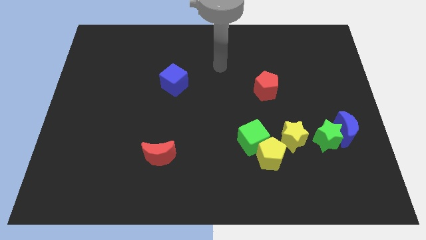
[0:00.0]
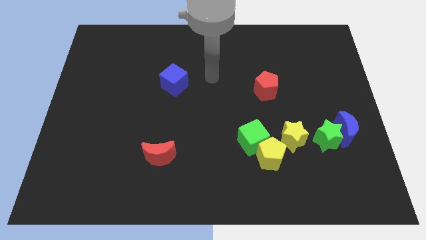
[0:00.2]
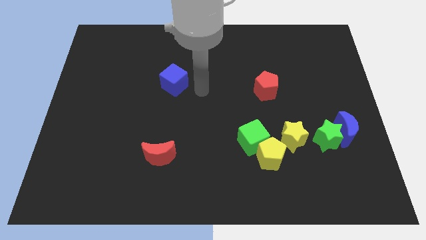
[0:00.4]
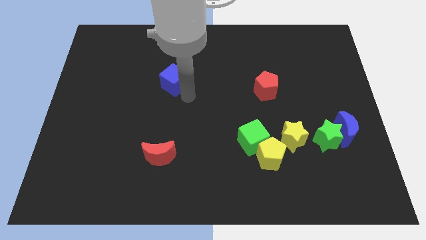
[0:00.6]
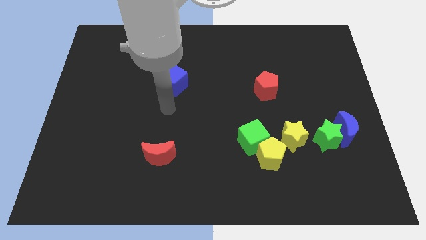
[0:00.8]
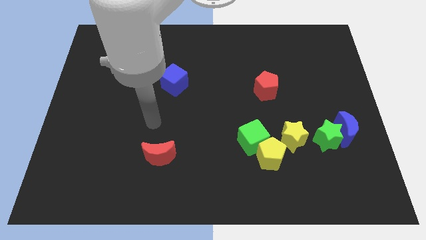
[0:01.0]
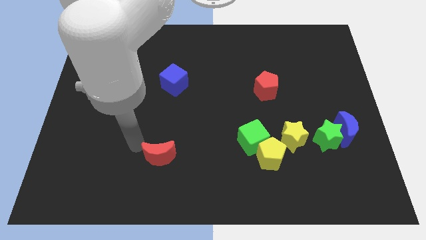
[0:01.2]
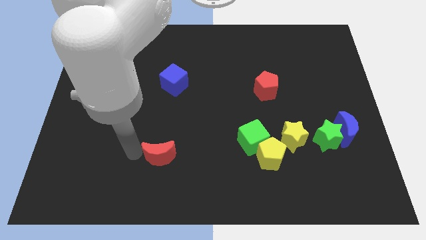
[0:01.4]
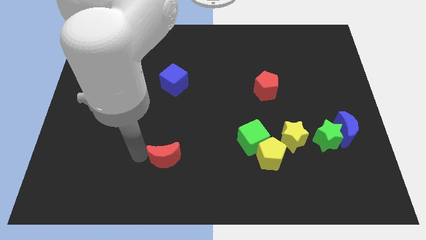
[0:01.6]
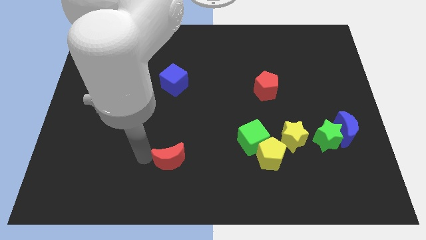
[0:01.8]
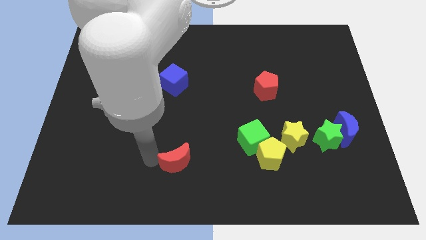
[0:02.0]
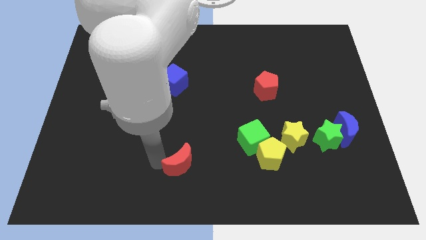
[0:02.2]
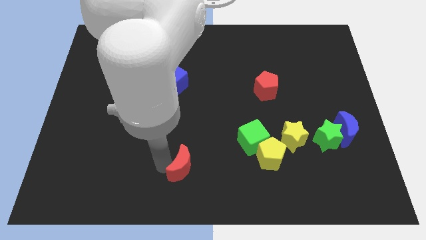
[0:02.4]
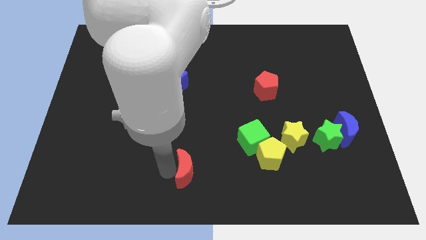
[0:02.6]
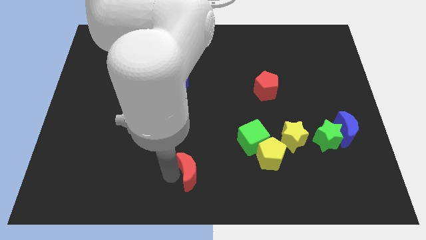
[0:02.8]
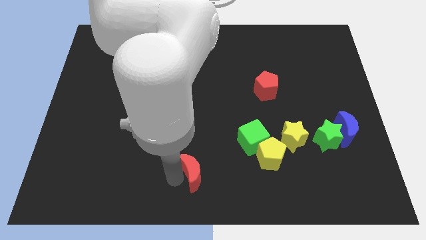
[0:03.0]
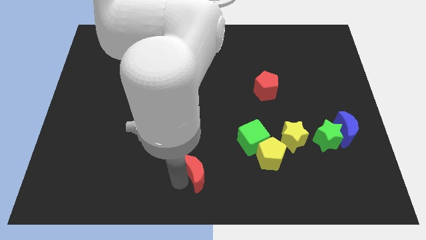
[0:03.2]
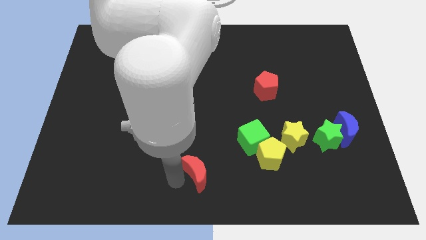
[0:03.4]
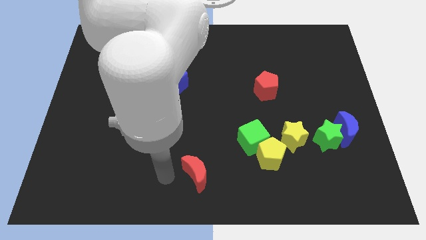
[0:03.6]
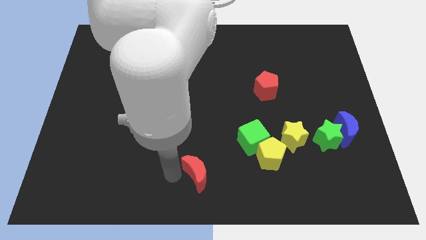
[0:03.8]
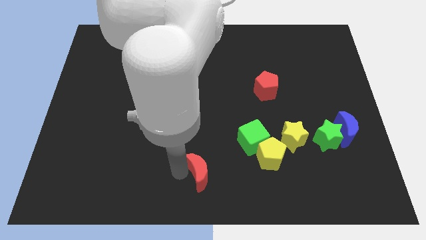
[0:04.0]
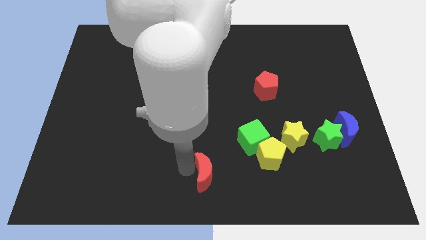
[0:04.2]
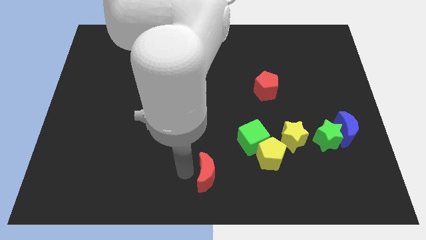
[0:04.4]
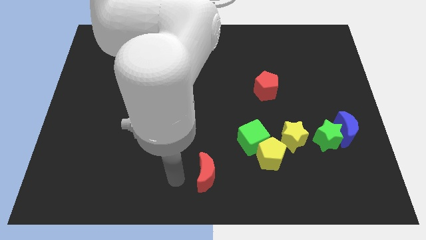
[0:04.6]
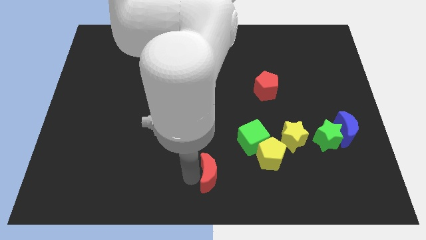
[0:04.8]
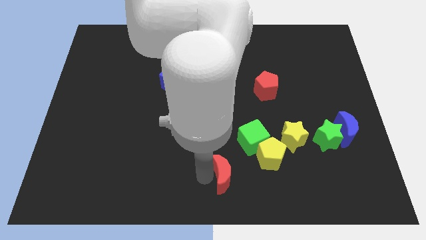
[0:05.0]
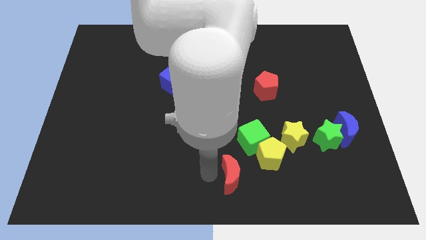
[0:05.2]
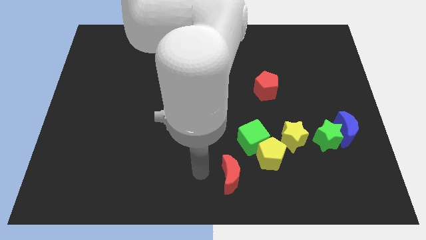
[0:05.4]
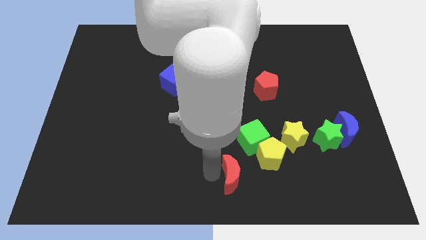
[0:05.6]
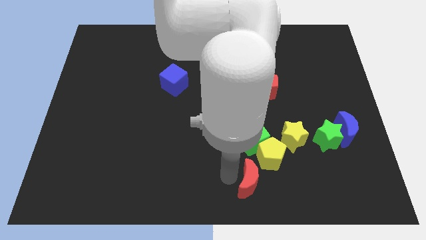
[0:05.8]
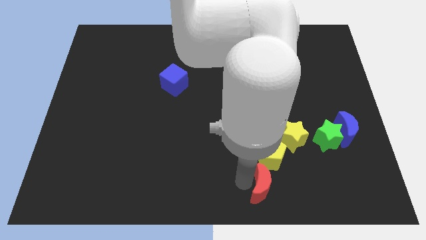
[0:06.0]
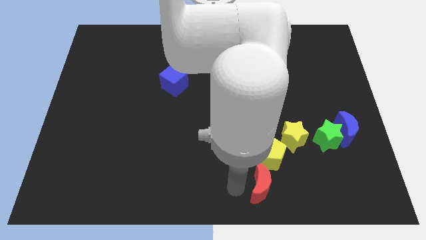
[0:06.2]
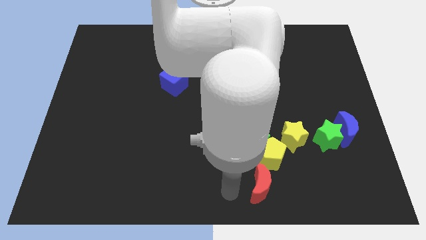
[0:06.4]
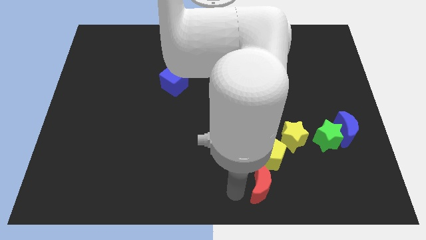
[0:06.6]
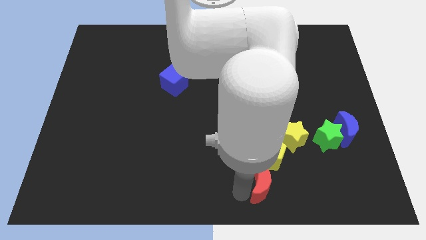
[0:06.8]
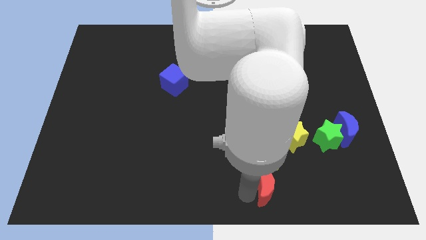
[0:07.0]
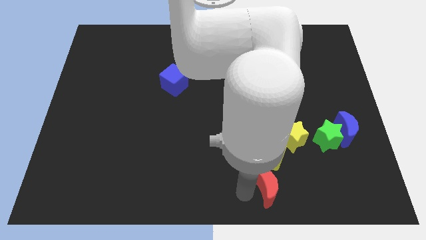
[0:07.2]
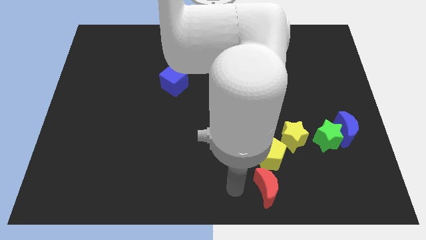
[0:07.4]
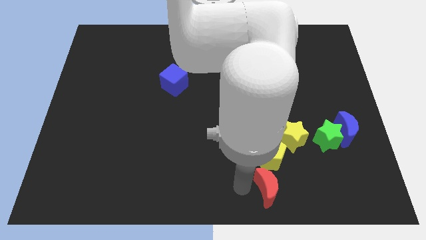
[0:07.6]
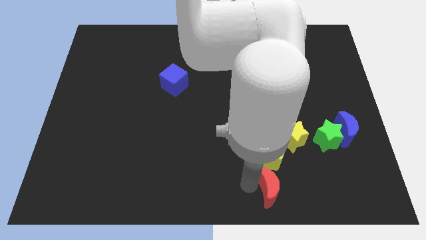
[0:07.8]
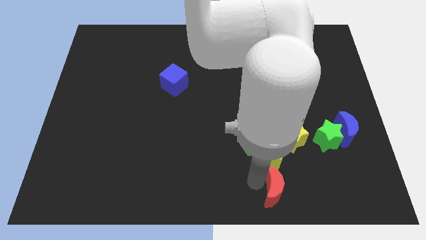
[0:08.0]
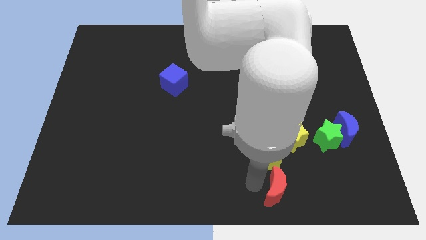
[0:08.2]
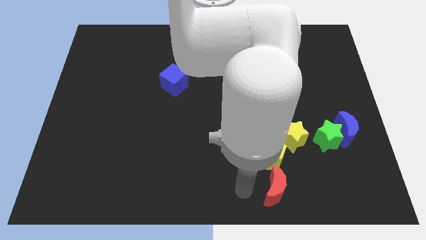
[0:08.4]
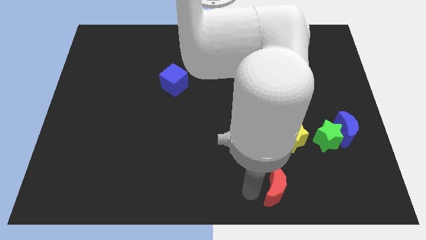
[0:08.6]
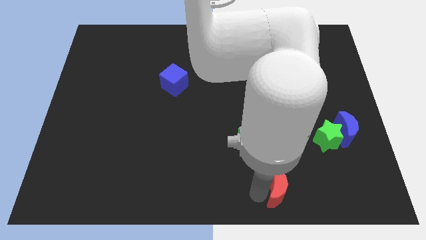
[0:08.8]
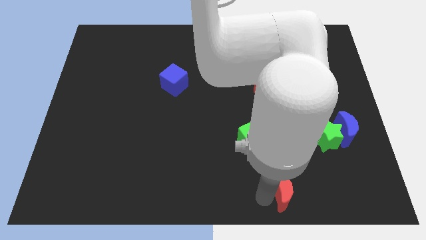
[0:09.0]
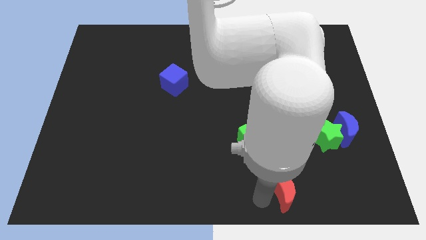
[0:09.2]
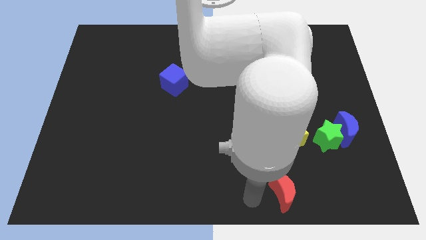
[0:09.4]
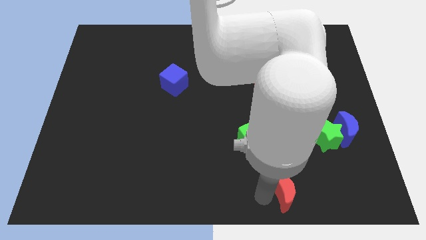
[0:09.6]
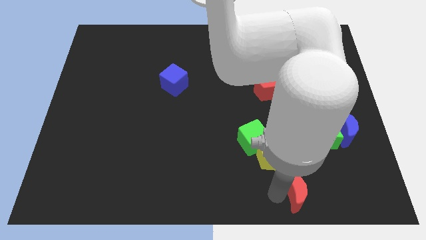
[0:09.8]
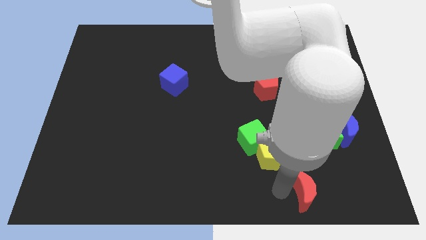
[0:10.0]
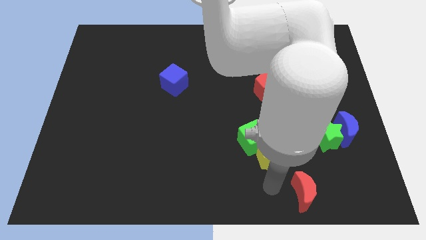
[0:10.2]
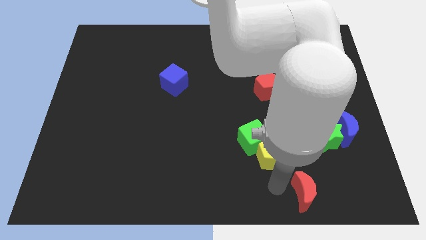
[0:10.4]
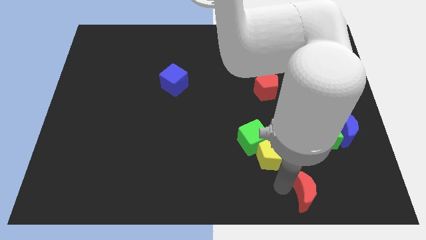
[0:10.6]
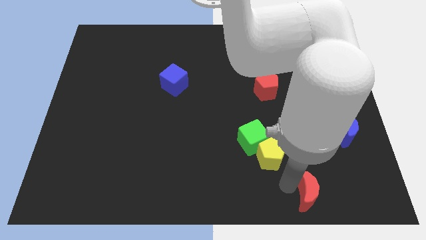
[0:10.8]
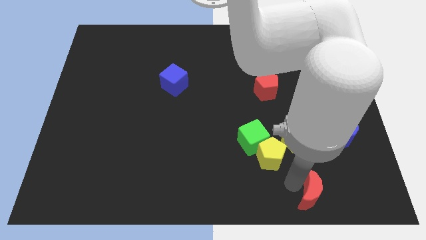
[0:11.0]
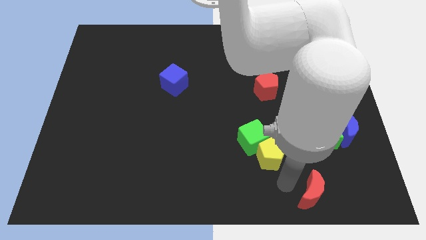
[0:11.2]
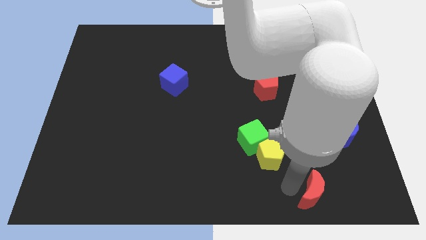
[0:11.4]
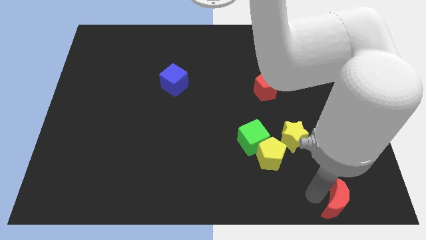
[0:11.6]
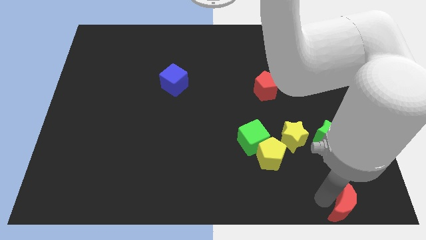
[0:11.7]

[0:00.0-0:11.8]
push the red moon to the lower right corner

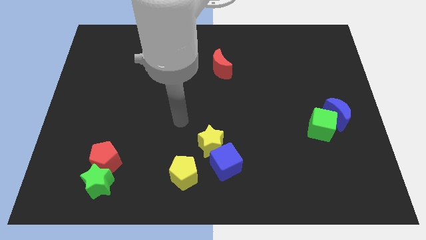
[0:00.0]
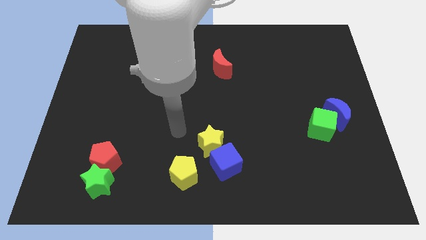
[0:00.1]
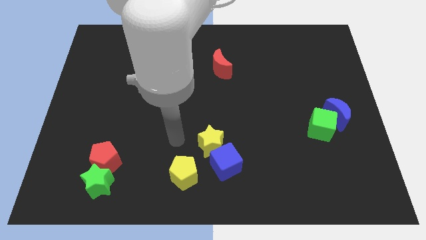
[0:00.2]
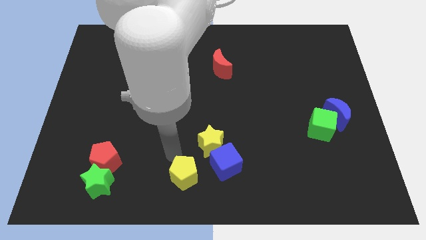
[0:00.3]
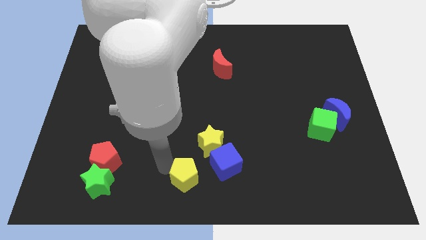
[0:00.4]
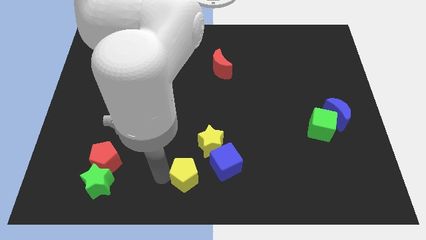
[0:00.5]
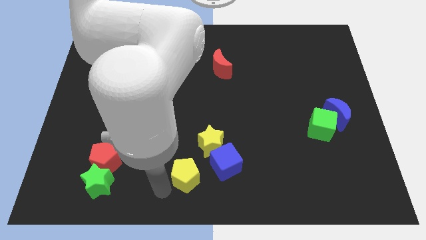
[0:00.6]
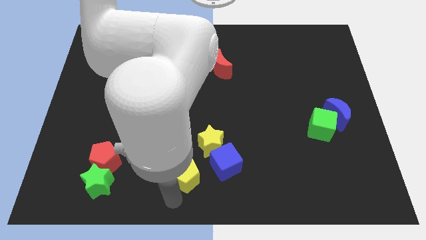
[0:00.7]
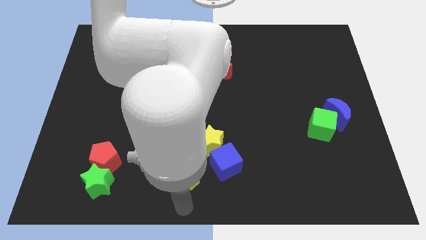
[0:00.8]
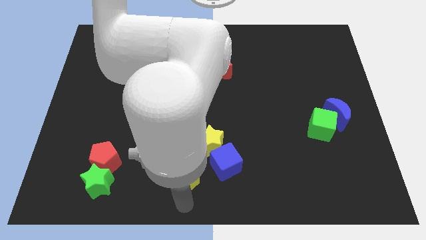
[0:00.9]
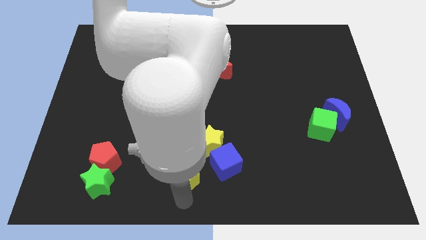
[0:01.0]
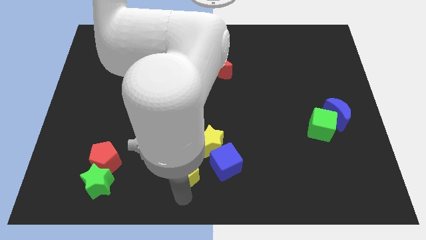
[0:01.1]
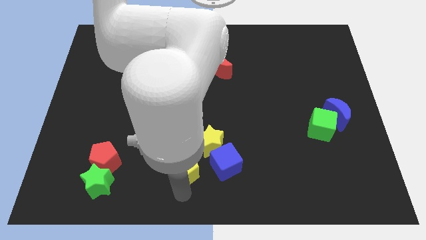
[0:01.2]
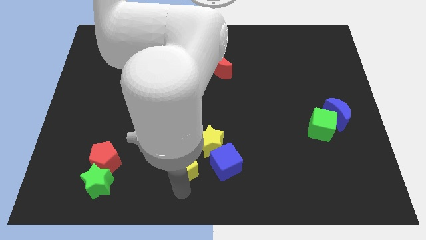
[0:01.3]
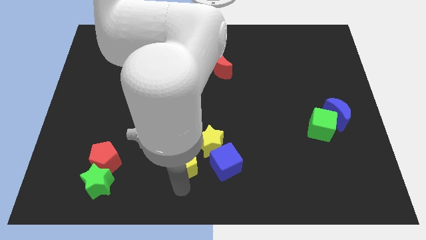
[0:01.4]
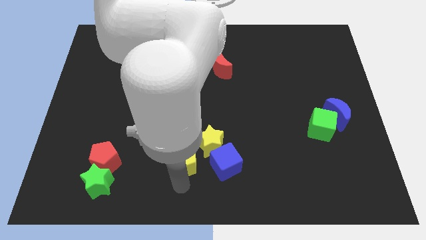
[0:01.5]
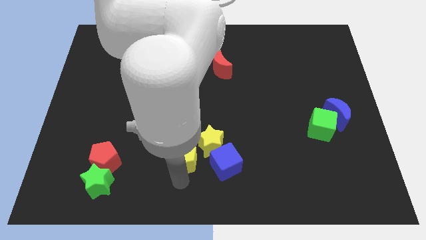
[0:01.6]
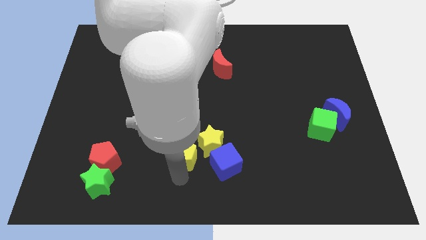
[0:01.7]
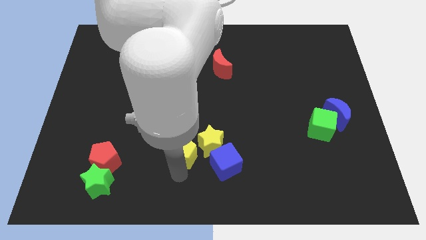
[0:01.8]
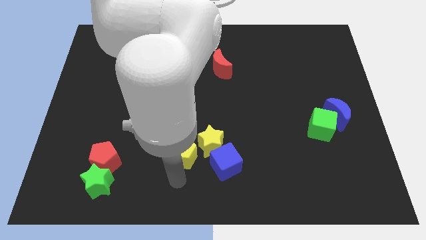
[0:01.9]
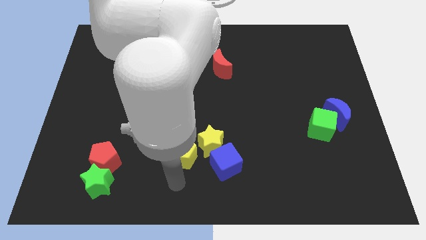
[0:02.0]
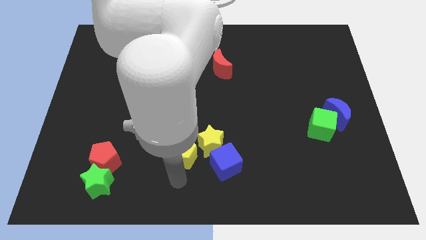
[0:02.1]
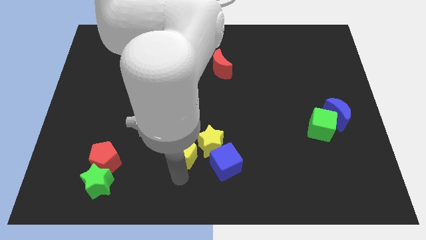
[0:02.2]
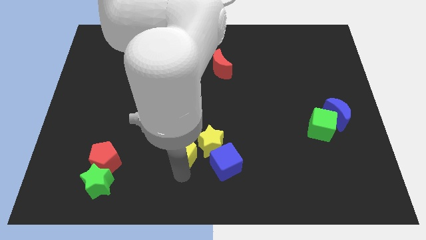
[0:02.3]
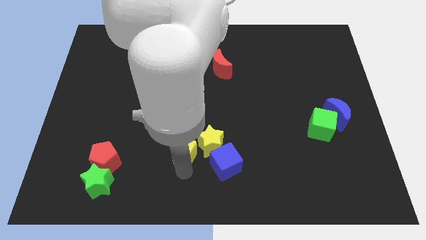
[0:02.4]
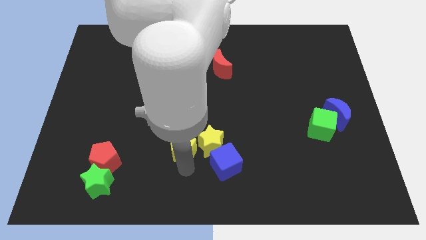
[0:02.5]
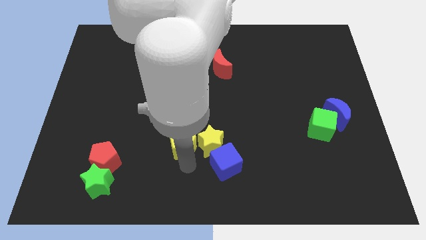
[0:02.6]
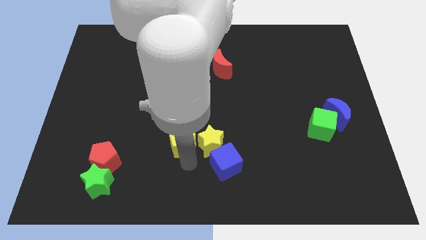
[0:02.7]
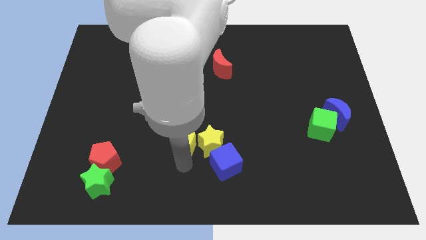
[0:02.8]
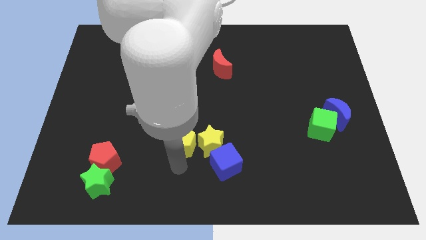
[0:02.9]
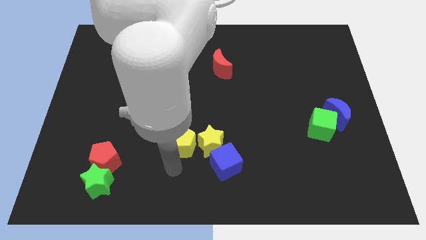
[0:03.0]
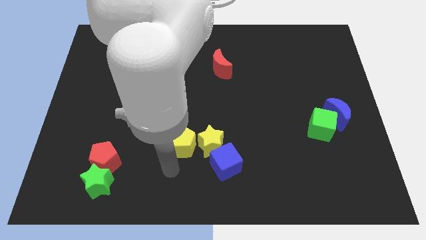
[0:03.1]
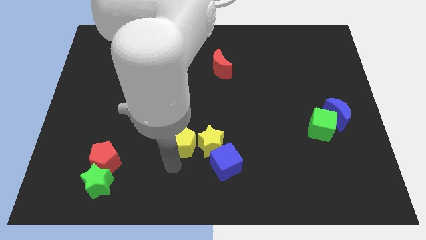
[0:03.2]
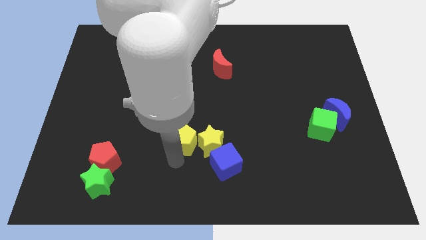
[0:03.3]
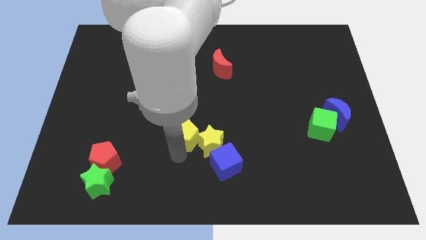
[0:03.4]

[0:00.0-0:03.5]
put the yellow pentagon to the center of the board
